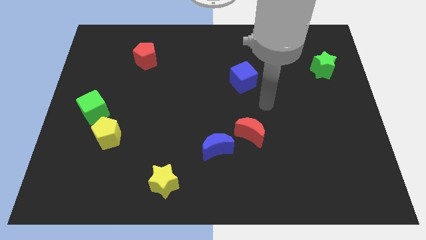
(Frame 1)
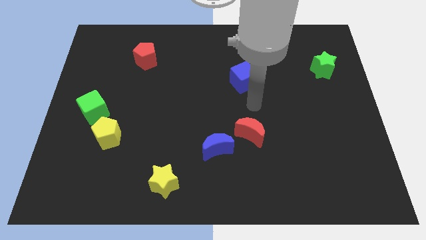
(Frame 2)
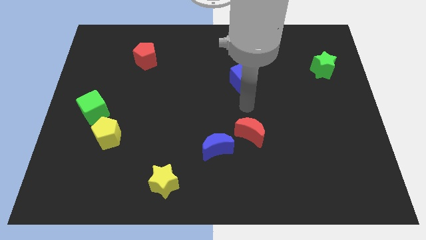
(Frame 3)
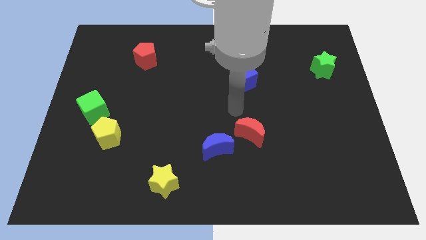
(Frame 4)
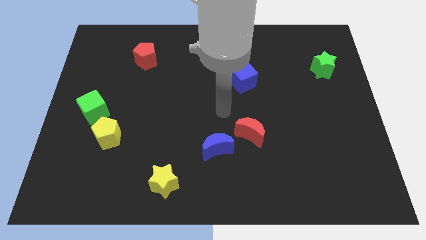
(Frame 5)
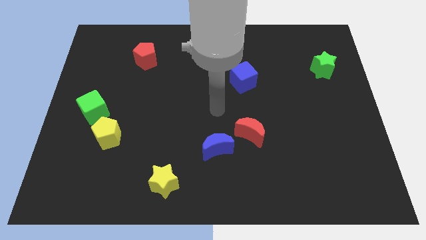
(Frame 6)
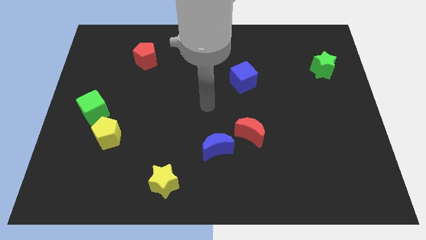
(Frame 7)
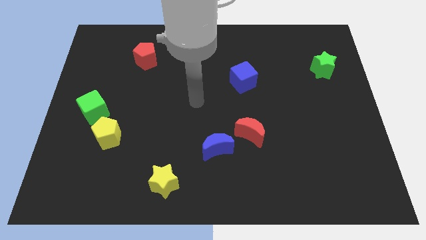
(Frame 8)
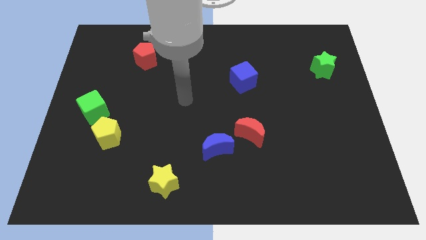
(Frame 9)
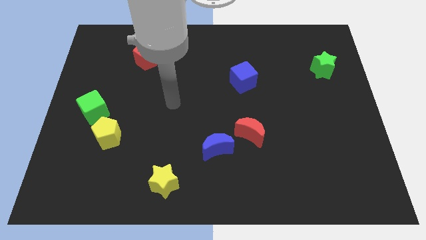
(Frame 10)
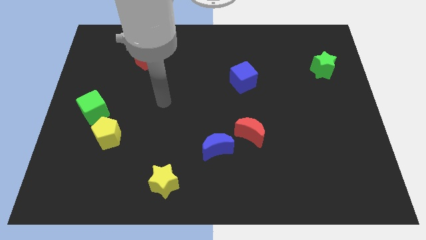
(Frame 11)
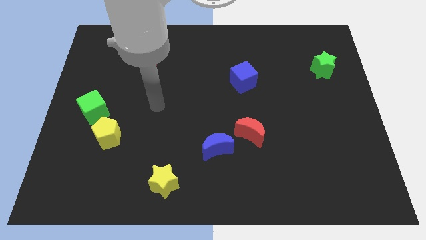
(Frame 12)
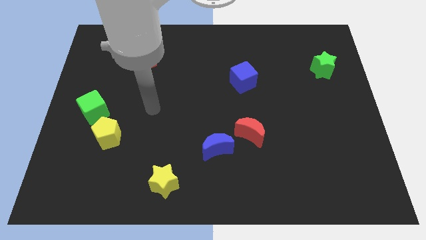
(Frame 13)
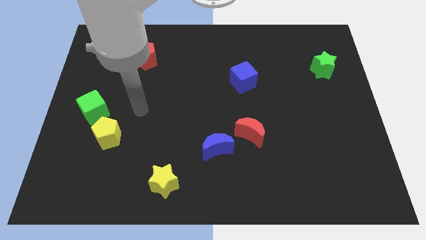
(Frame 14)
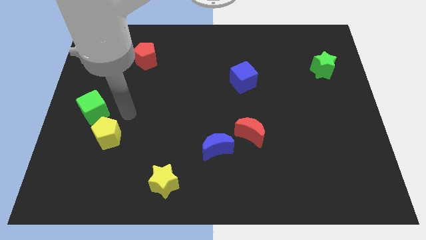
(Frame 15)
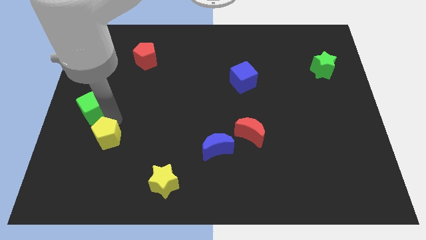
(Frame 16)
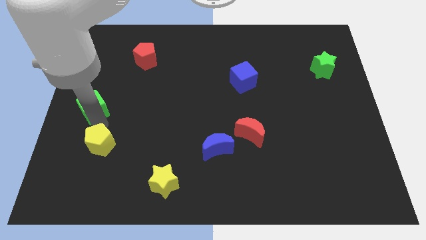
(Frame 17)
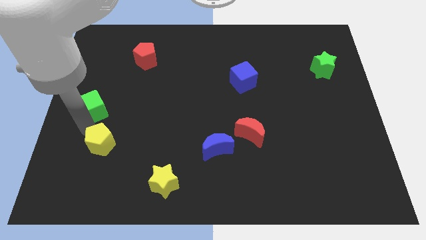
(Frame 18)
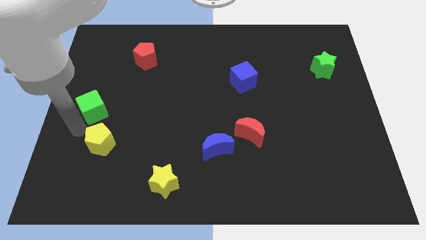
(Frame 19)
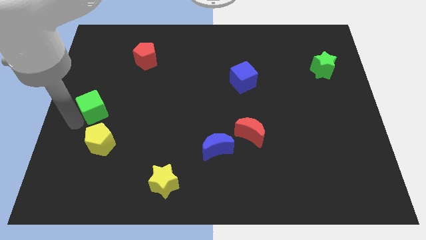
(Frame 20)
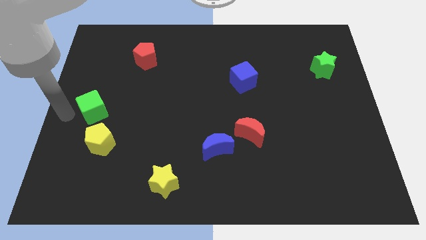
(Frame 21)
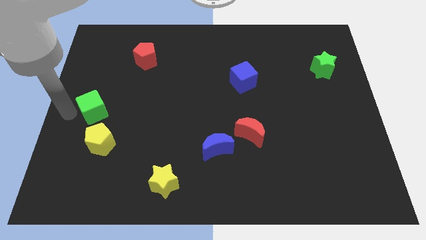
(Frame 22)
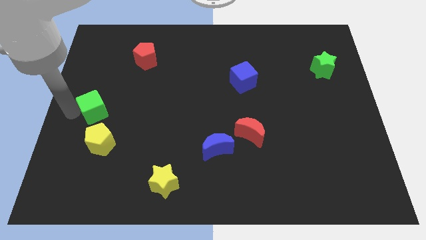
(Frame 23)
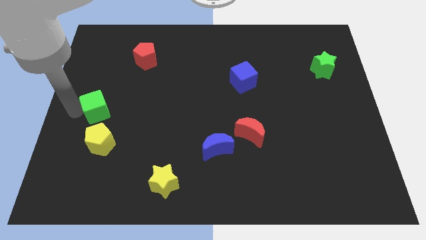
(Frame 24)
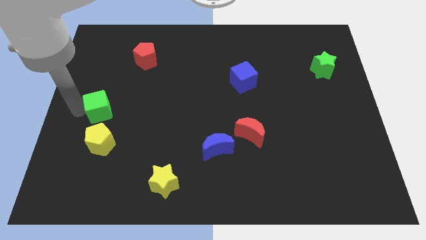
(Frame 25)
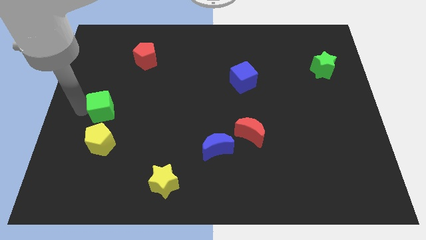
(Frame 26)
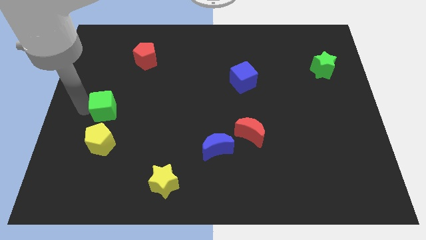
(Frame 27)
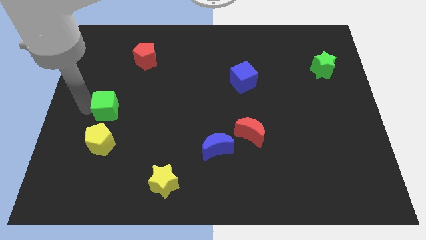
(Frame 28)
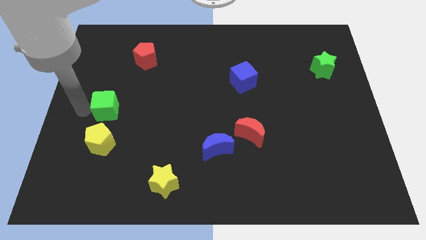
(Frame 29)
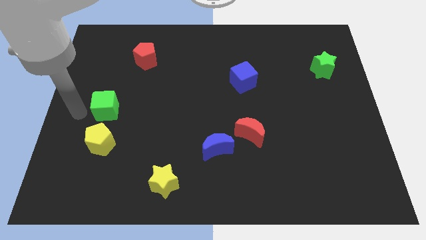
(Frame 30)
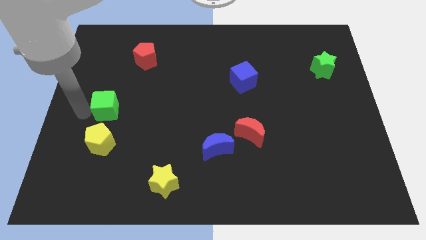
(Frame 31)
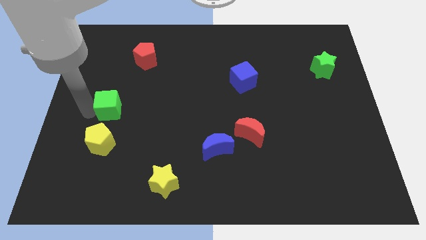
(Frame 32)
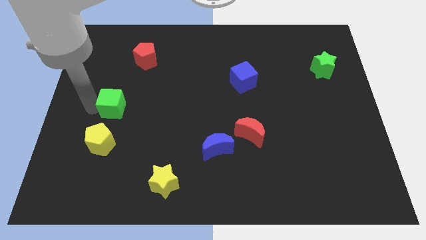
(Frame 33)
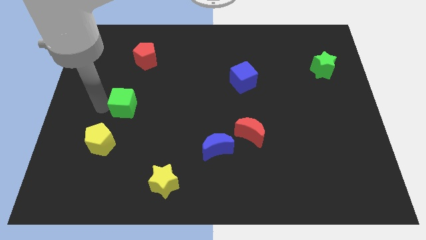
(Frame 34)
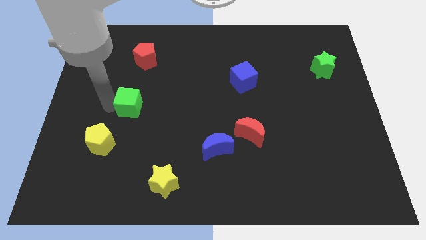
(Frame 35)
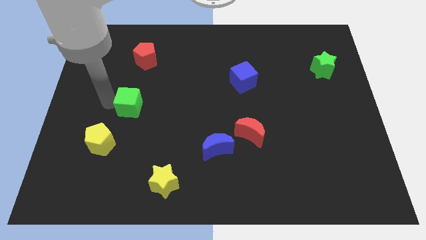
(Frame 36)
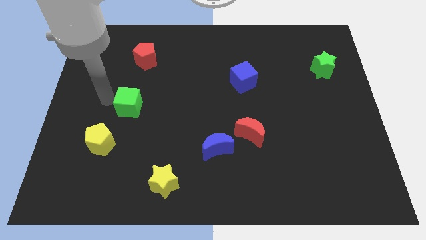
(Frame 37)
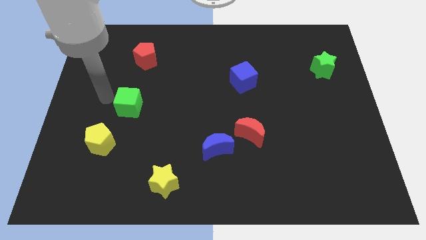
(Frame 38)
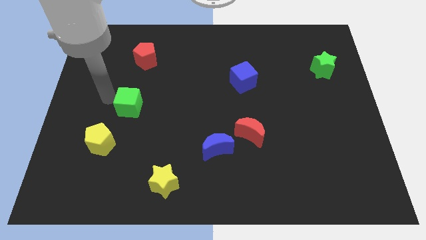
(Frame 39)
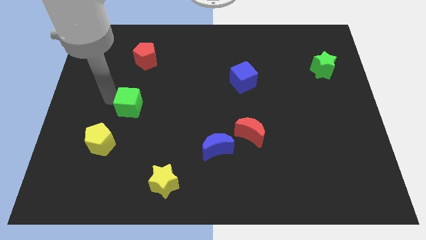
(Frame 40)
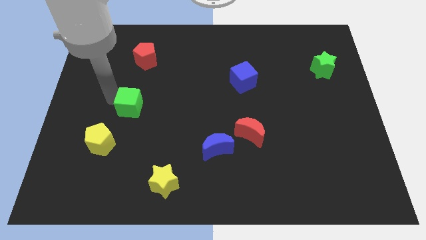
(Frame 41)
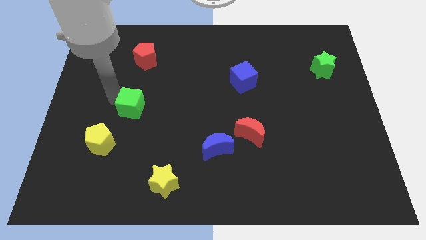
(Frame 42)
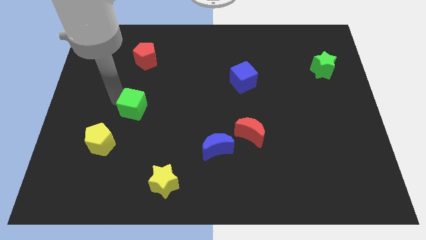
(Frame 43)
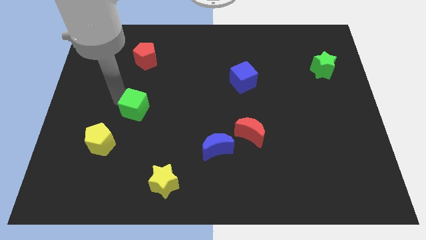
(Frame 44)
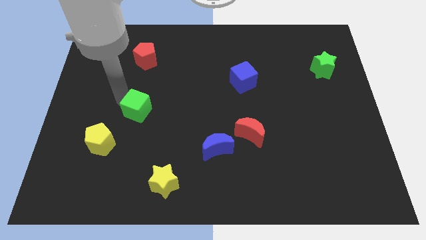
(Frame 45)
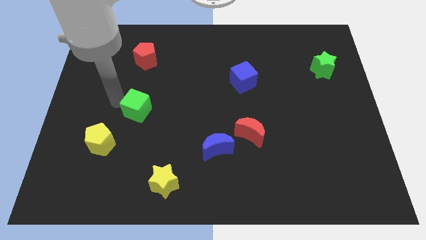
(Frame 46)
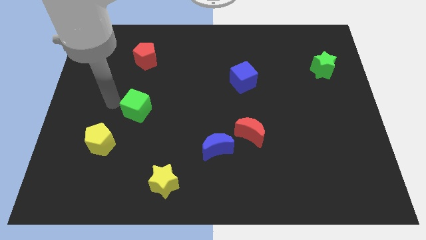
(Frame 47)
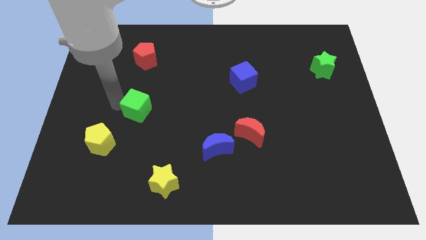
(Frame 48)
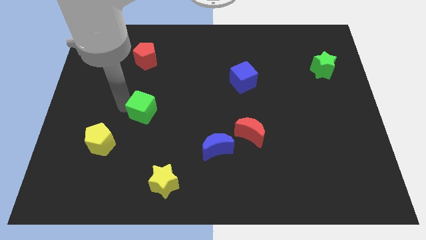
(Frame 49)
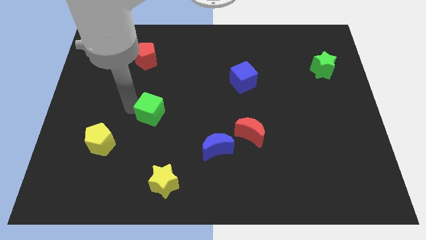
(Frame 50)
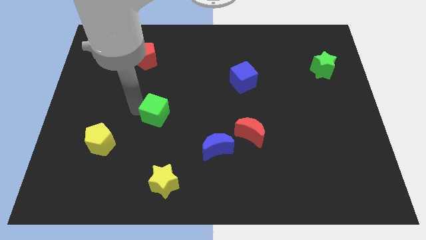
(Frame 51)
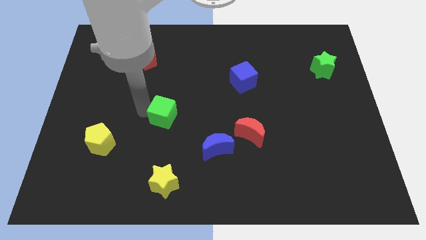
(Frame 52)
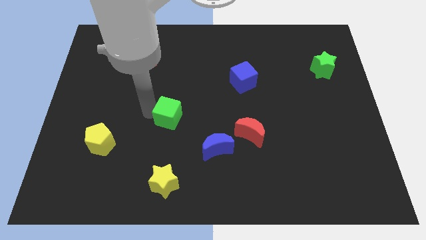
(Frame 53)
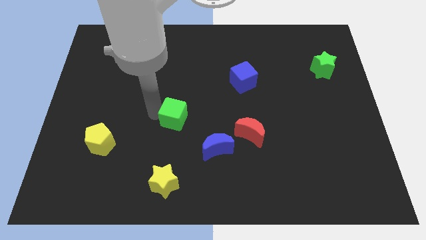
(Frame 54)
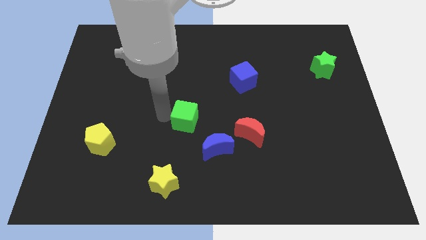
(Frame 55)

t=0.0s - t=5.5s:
move the green cube right

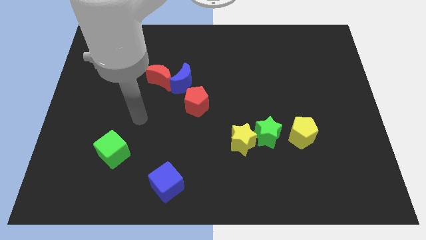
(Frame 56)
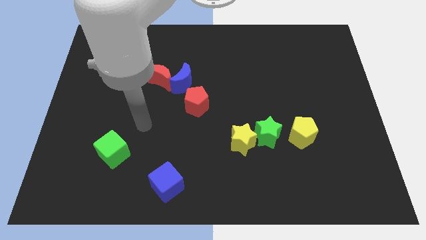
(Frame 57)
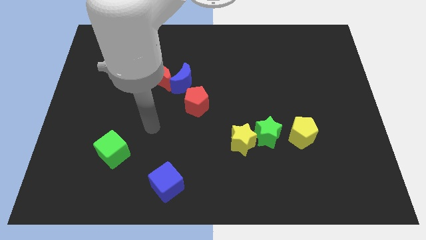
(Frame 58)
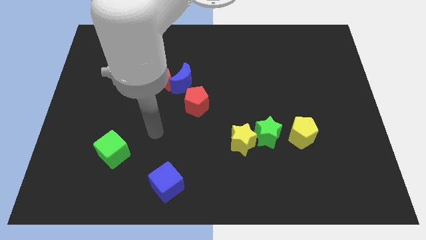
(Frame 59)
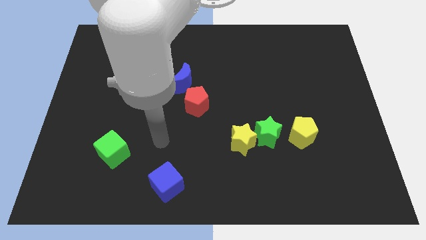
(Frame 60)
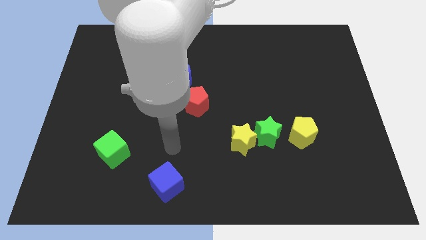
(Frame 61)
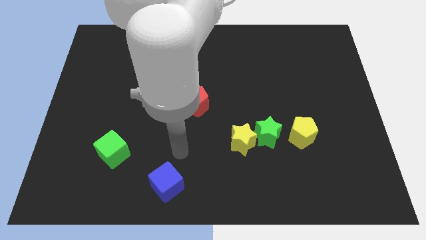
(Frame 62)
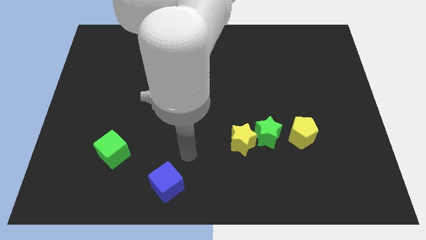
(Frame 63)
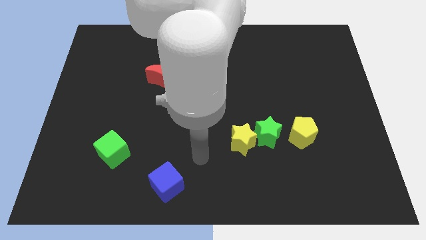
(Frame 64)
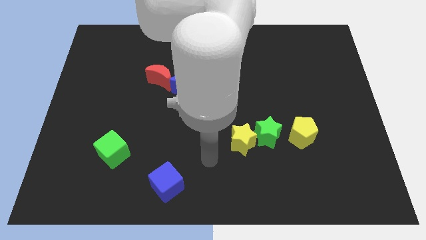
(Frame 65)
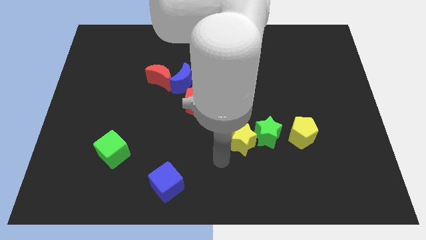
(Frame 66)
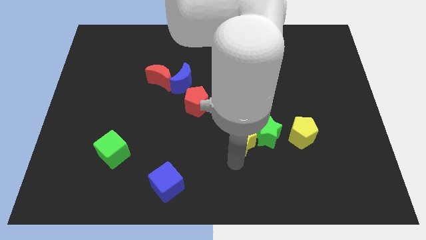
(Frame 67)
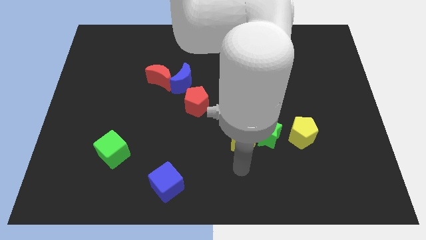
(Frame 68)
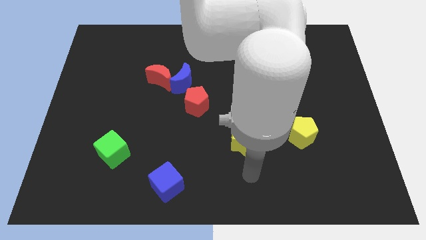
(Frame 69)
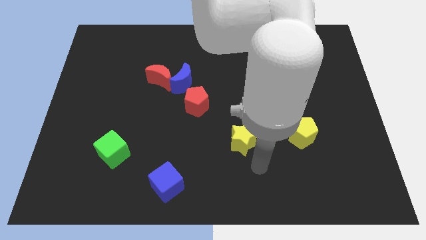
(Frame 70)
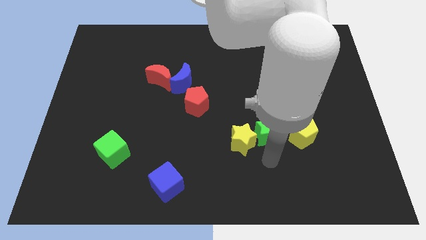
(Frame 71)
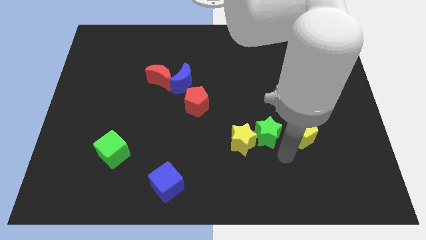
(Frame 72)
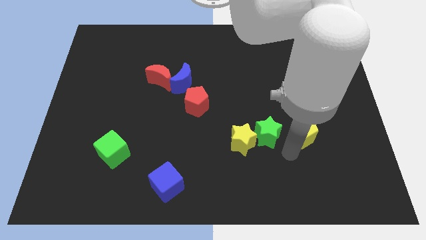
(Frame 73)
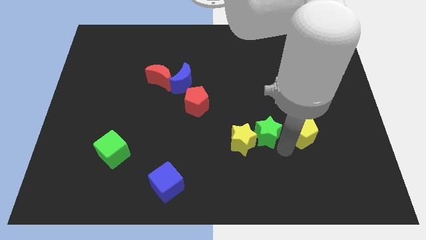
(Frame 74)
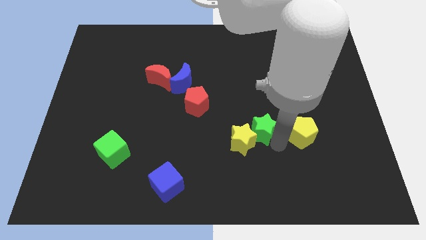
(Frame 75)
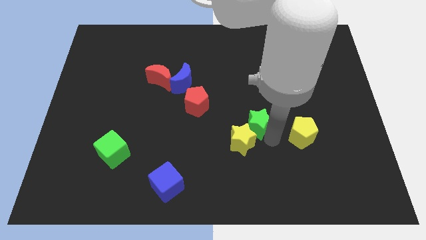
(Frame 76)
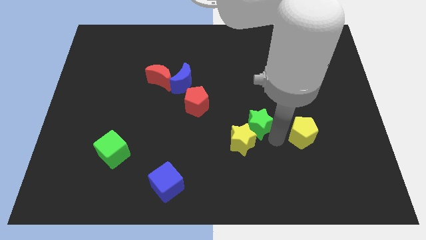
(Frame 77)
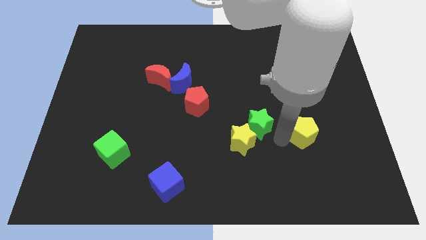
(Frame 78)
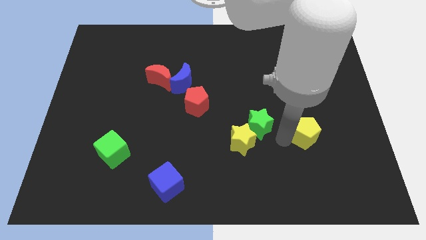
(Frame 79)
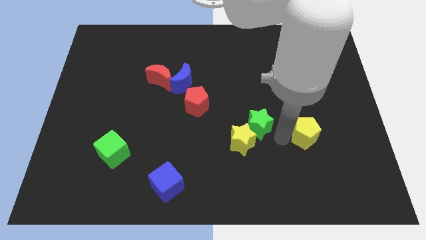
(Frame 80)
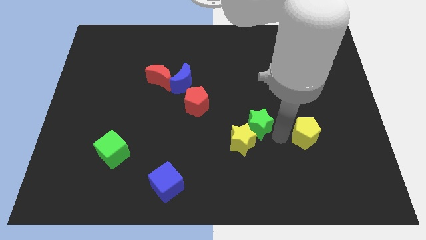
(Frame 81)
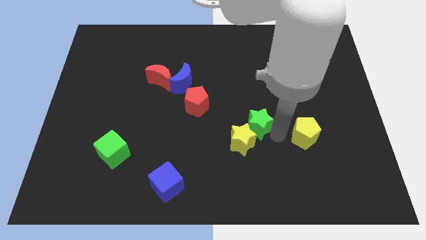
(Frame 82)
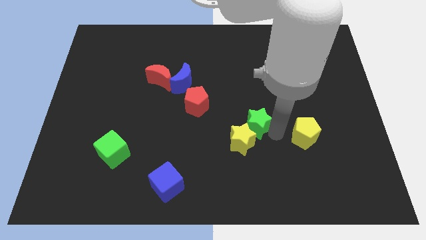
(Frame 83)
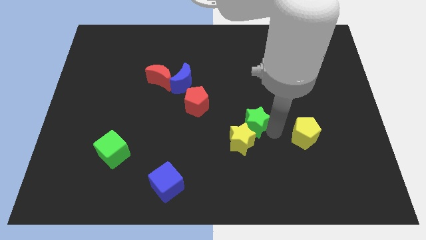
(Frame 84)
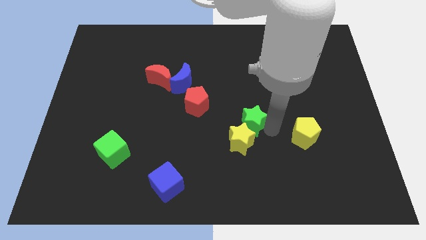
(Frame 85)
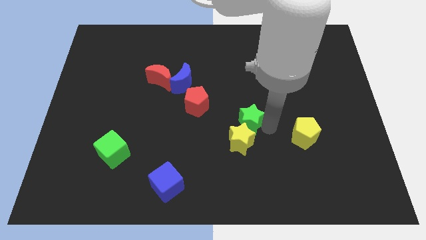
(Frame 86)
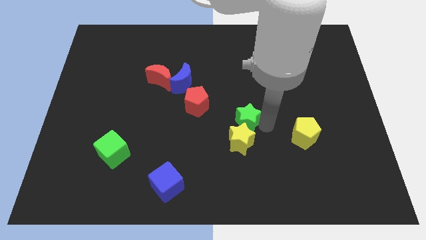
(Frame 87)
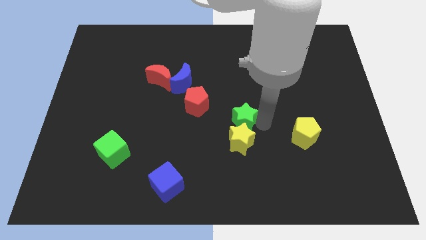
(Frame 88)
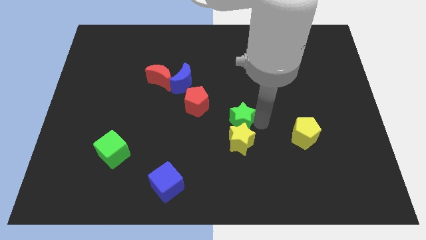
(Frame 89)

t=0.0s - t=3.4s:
slide the green star up and then left slightly
